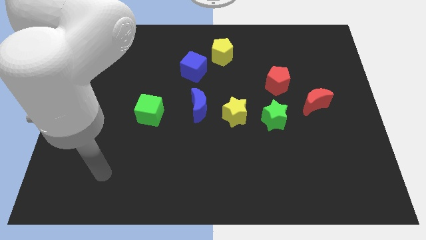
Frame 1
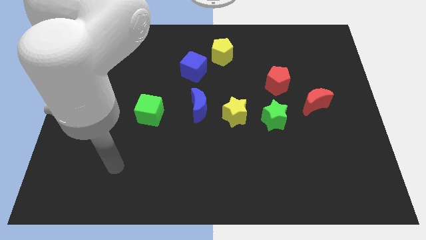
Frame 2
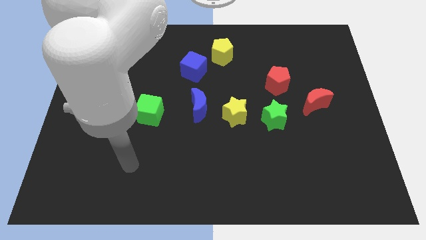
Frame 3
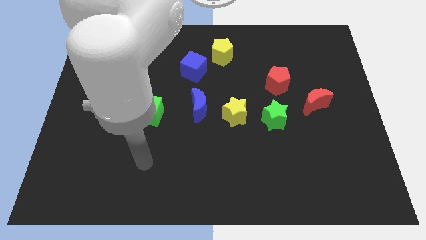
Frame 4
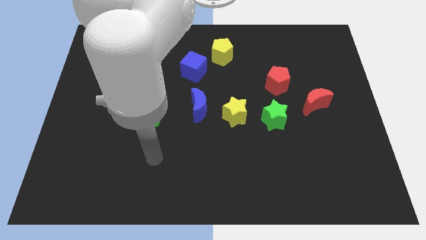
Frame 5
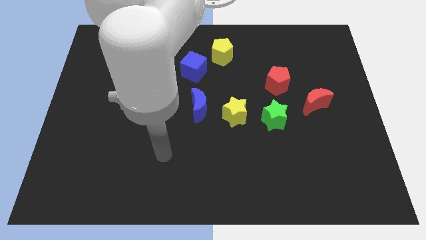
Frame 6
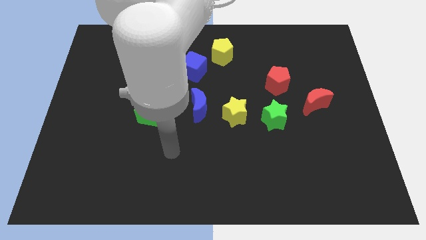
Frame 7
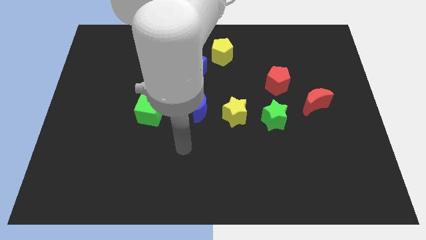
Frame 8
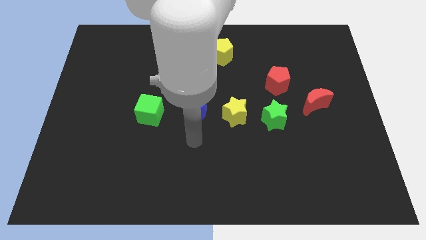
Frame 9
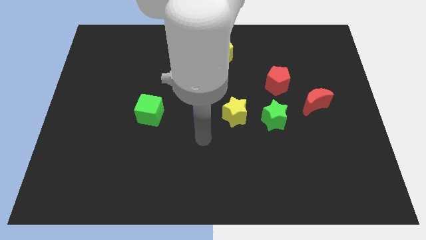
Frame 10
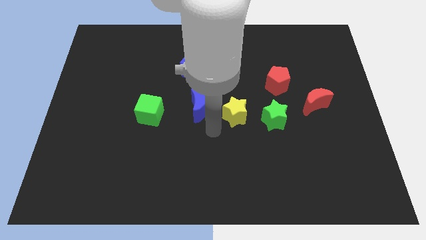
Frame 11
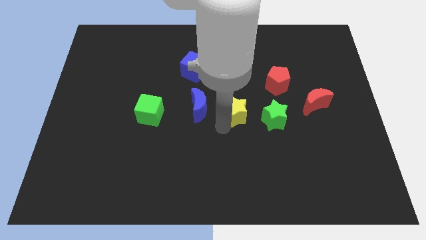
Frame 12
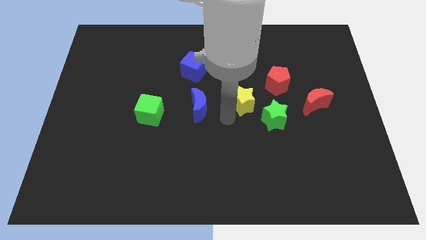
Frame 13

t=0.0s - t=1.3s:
pull the blue moon apart from the yellow star

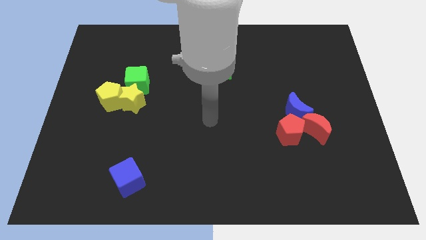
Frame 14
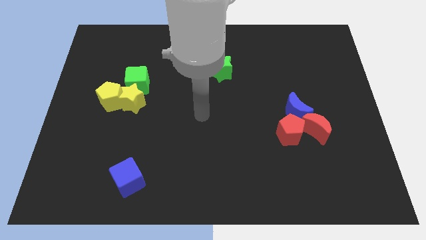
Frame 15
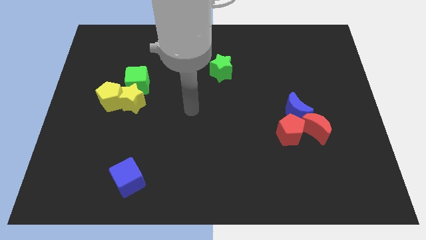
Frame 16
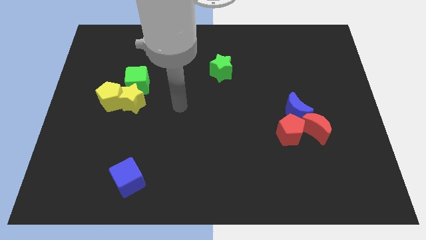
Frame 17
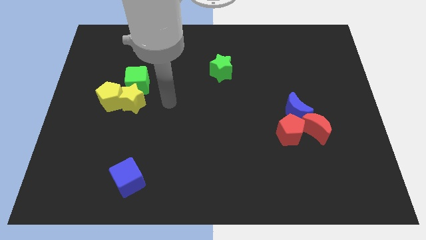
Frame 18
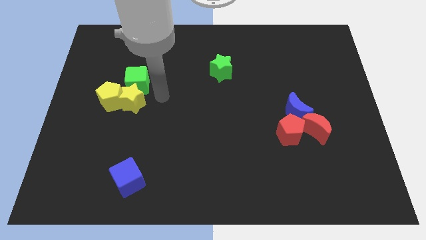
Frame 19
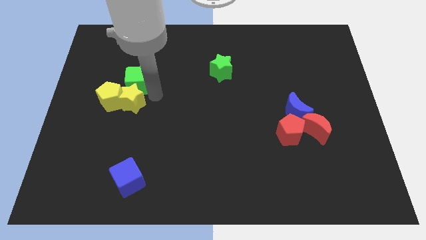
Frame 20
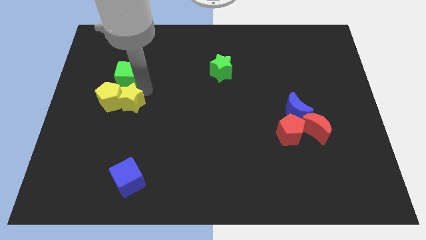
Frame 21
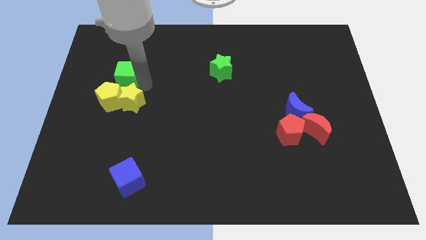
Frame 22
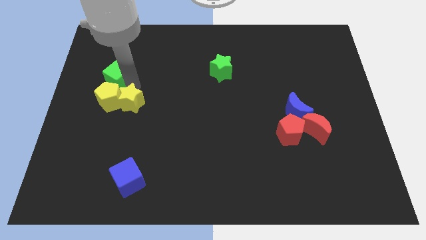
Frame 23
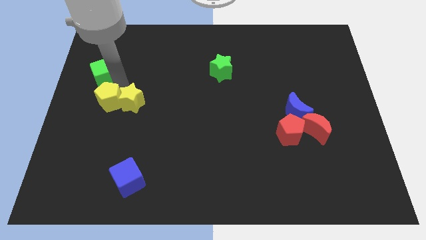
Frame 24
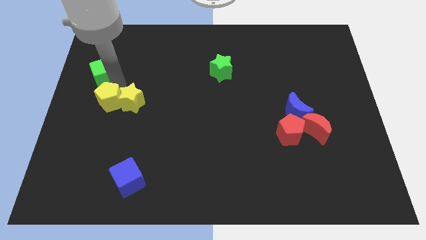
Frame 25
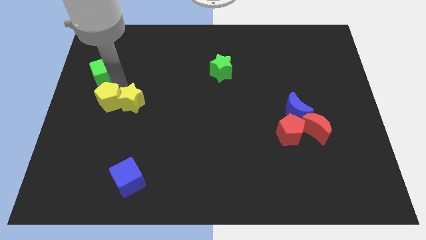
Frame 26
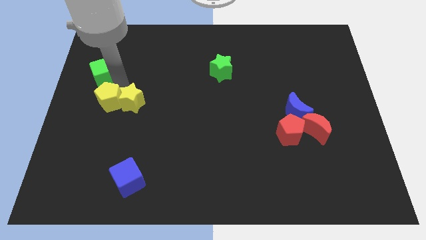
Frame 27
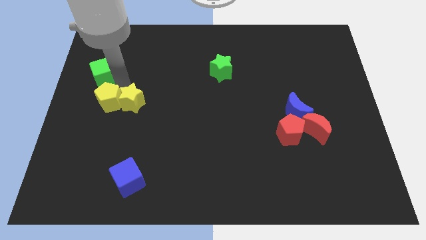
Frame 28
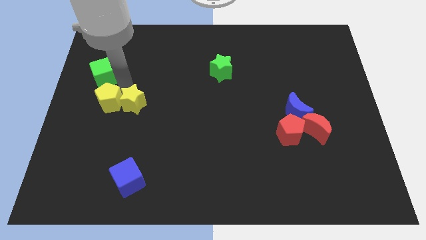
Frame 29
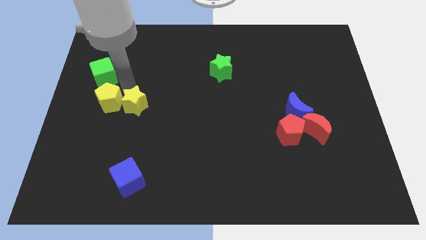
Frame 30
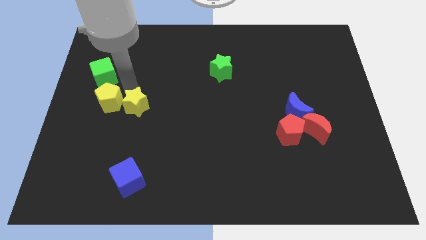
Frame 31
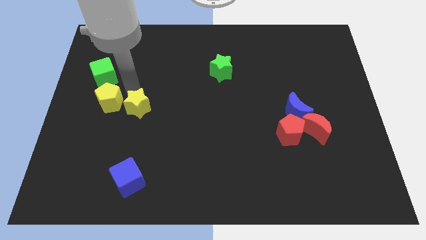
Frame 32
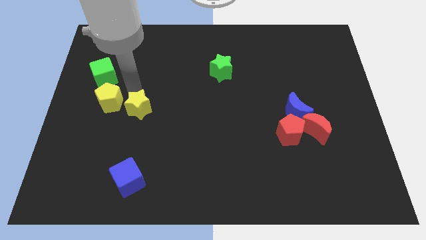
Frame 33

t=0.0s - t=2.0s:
separate the yellow star from the yellow pentagon and green cube

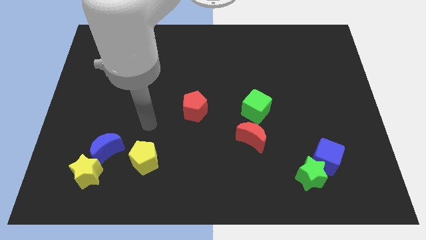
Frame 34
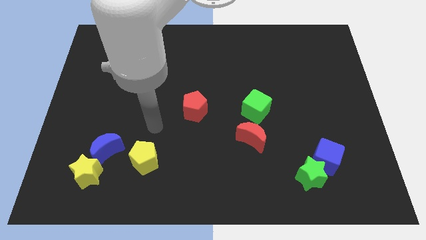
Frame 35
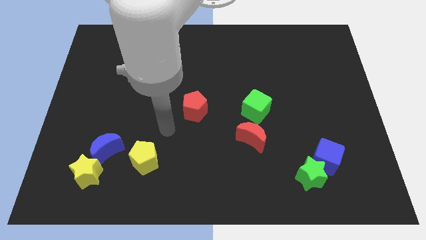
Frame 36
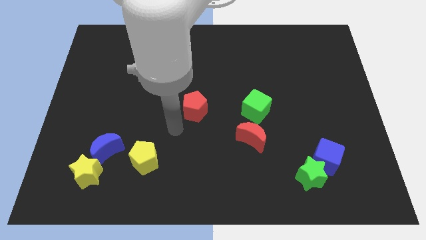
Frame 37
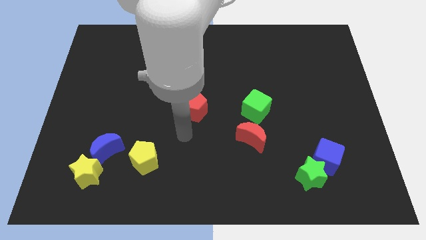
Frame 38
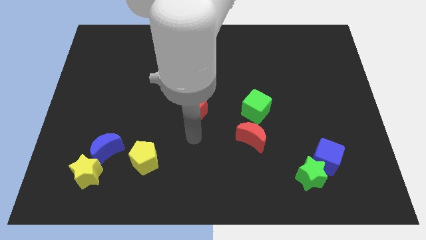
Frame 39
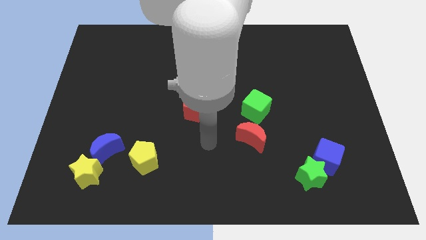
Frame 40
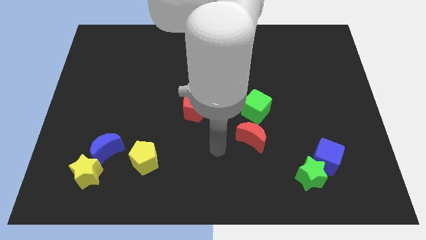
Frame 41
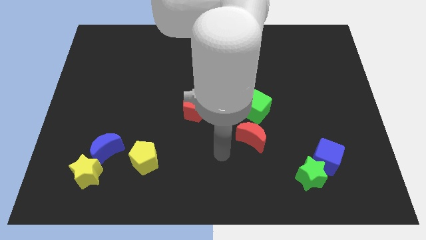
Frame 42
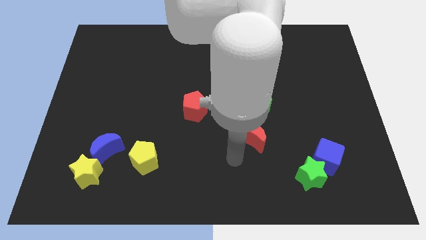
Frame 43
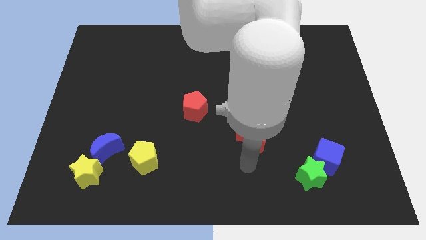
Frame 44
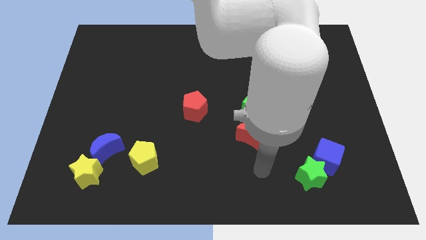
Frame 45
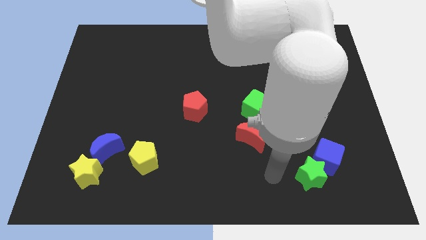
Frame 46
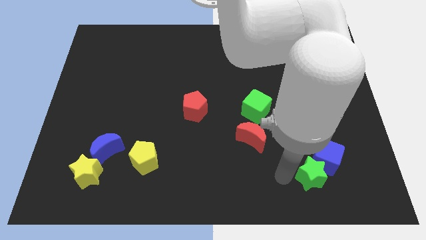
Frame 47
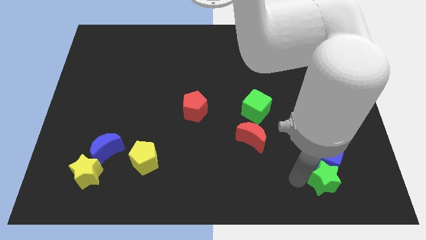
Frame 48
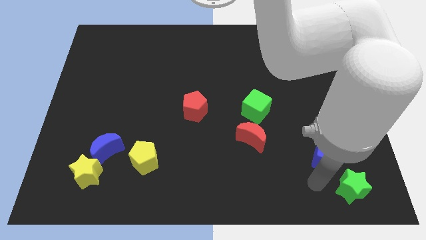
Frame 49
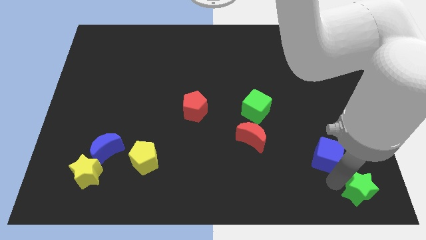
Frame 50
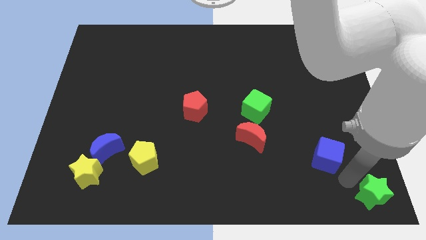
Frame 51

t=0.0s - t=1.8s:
separate the blue cube from the green star

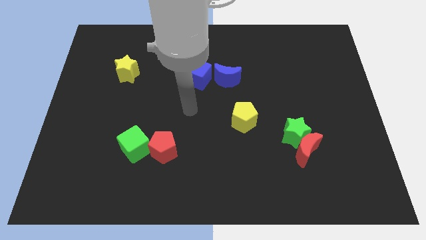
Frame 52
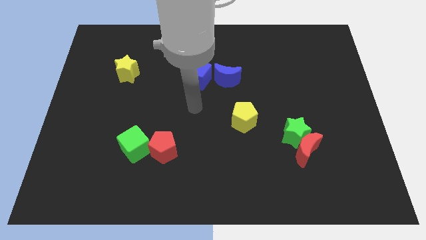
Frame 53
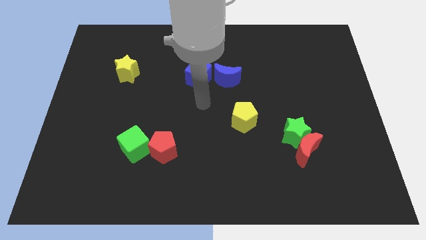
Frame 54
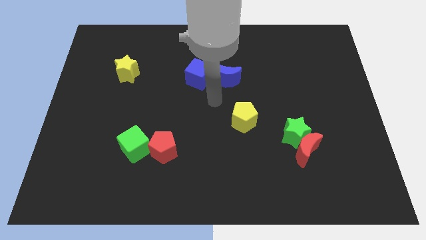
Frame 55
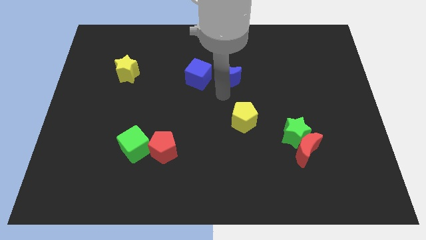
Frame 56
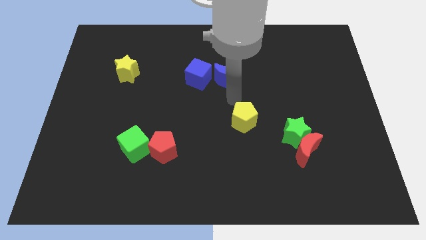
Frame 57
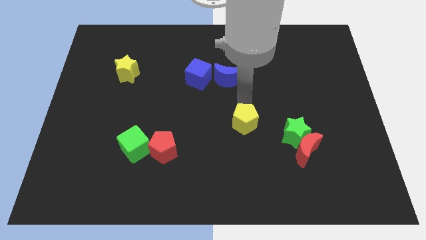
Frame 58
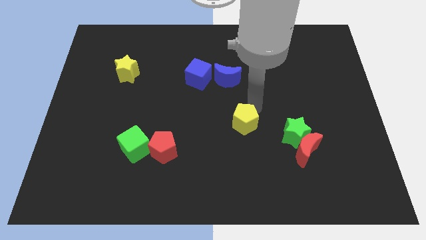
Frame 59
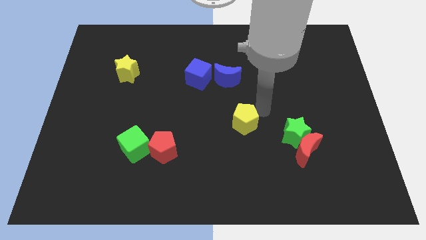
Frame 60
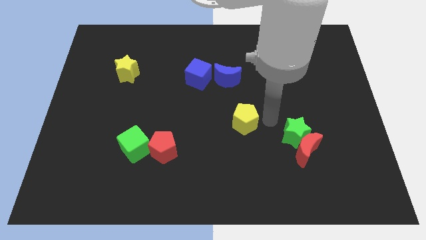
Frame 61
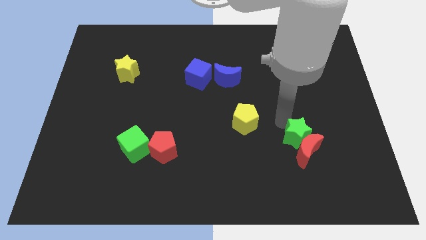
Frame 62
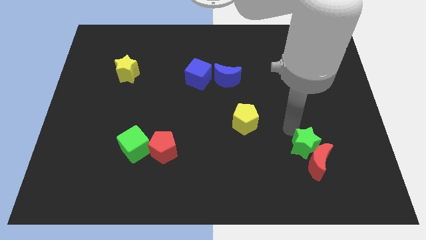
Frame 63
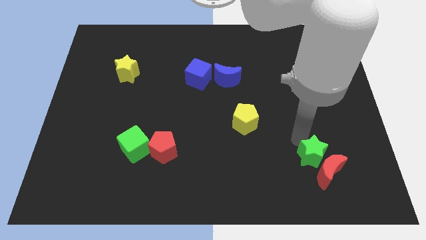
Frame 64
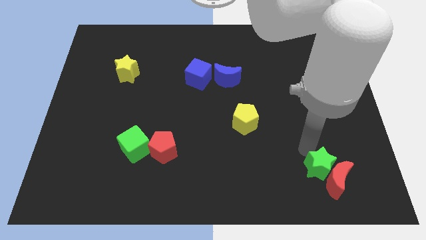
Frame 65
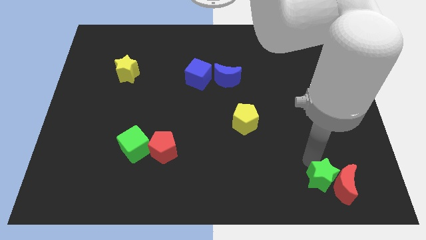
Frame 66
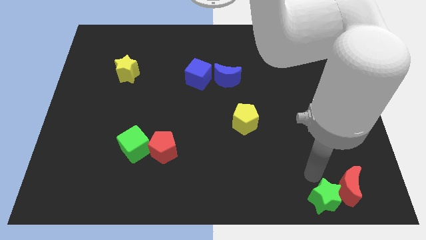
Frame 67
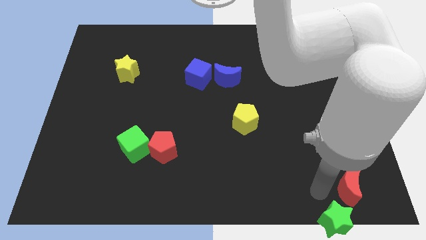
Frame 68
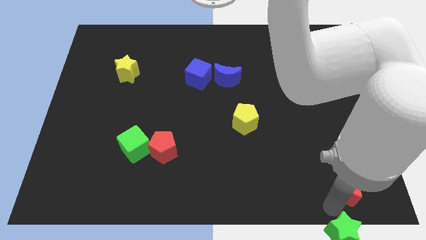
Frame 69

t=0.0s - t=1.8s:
separate the red moon from the green star

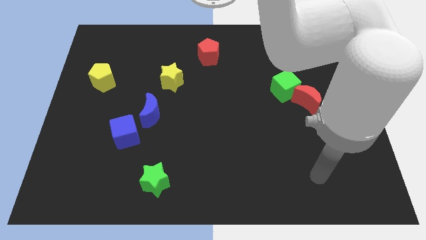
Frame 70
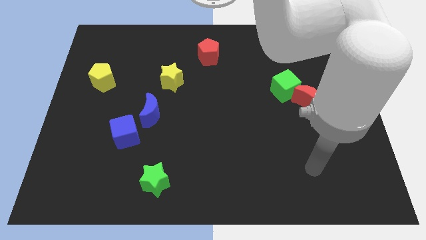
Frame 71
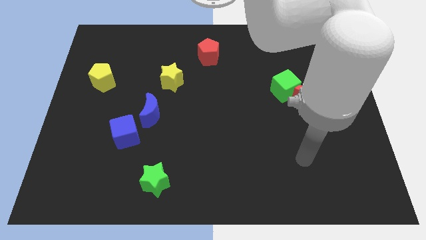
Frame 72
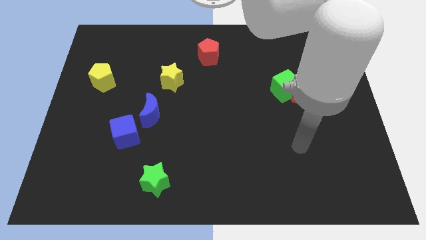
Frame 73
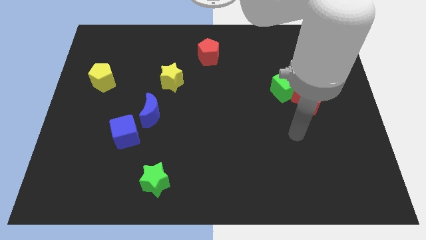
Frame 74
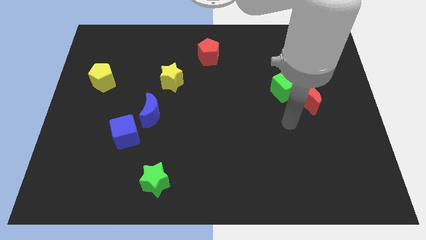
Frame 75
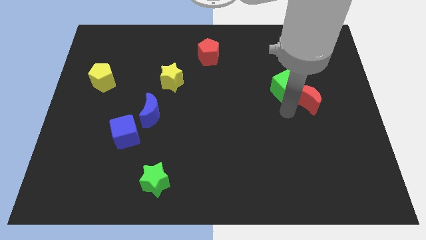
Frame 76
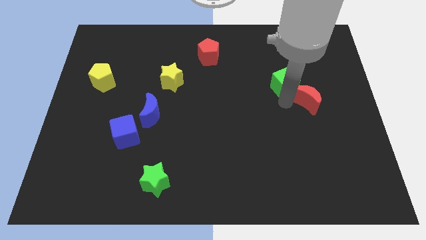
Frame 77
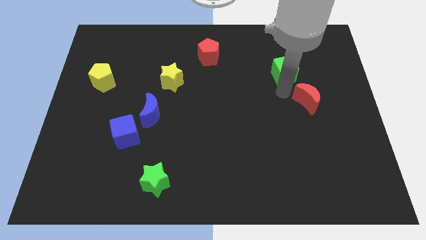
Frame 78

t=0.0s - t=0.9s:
move the red moon away from the green cube

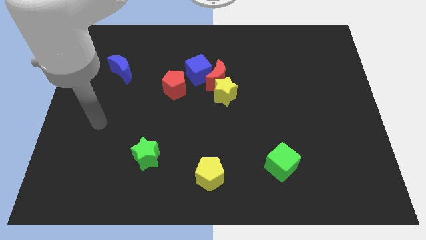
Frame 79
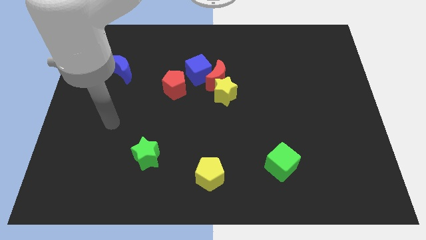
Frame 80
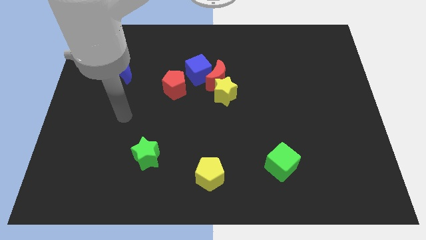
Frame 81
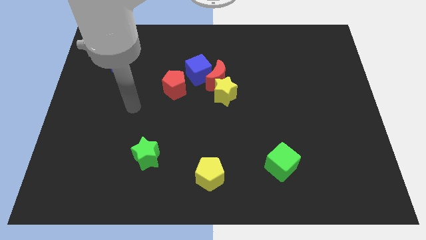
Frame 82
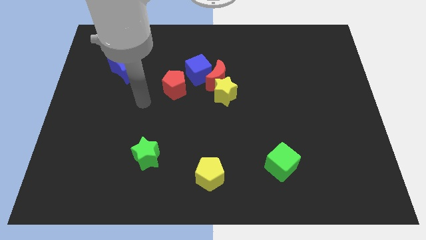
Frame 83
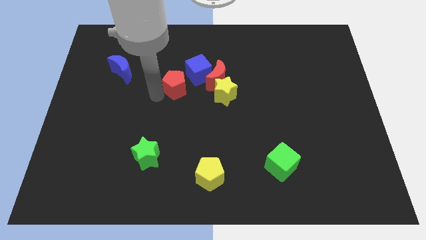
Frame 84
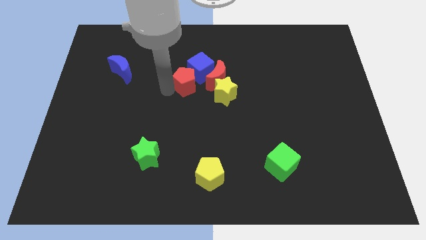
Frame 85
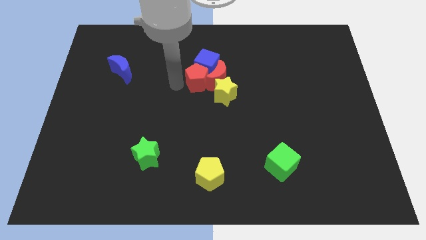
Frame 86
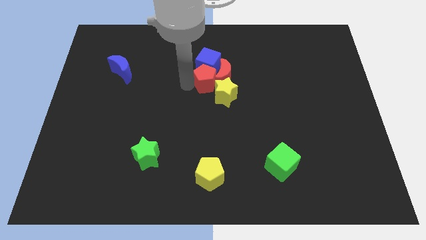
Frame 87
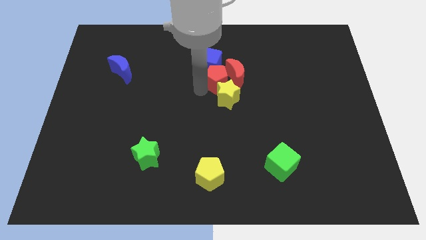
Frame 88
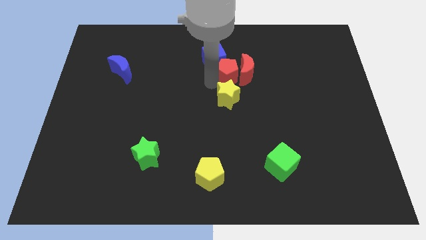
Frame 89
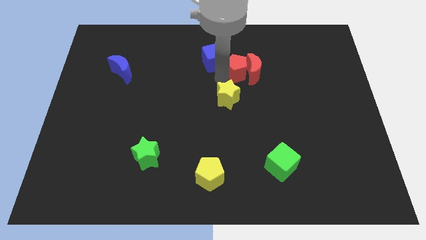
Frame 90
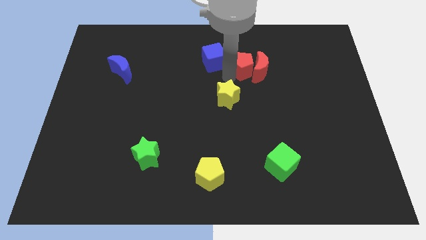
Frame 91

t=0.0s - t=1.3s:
pull the red moon apart from the yellow star and blue cube

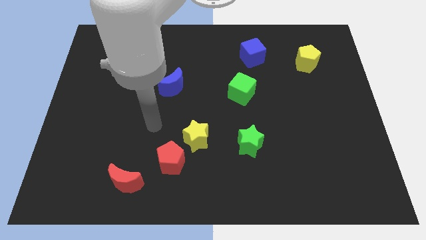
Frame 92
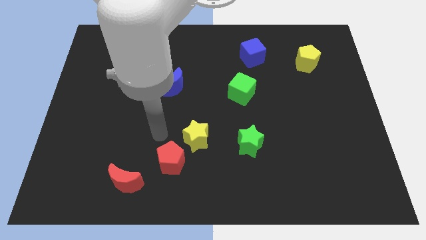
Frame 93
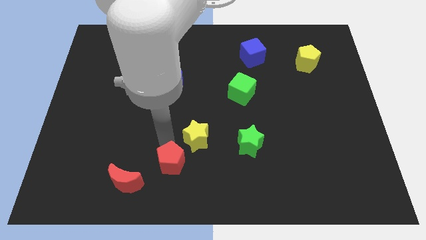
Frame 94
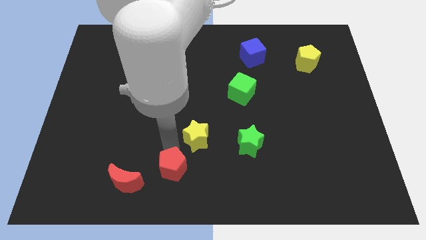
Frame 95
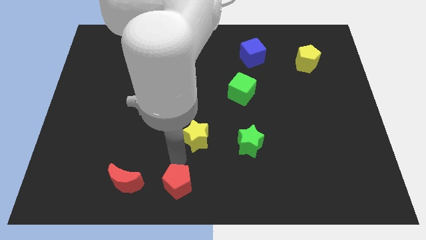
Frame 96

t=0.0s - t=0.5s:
move the yellow star away from the red pentagon
